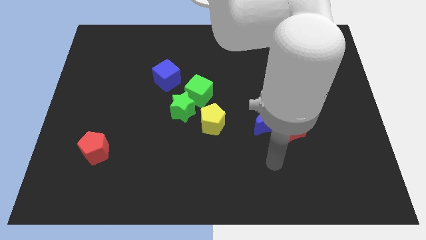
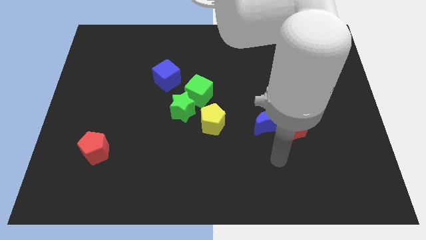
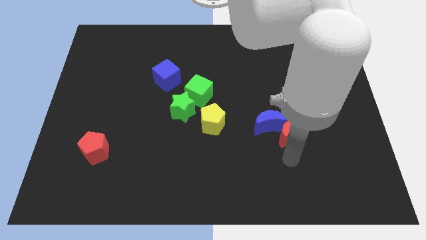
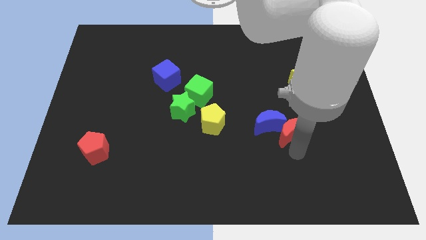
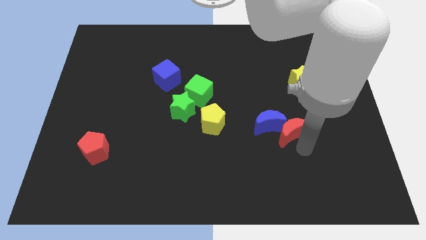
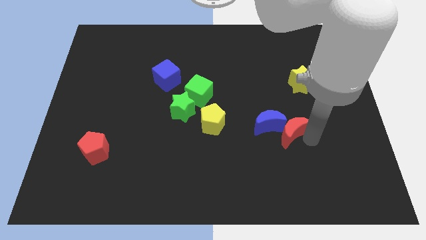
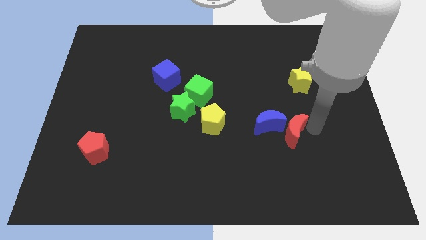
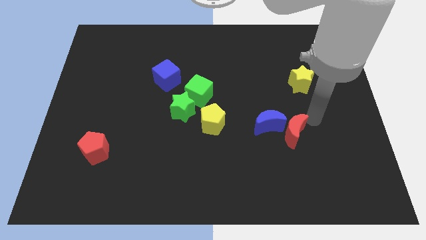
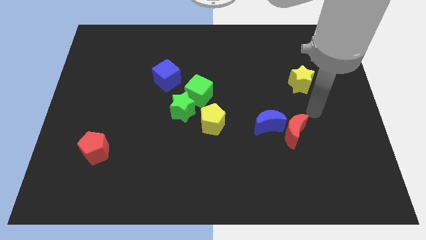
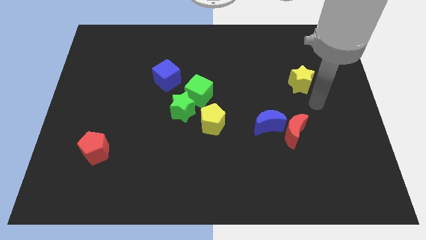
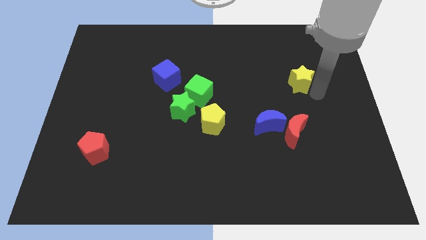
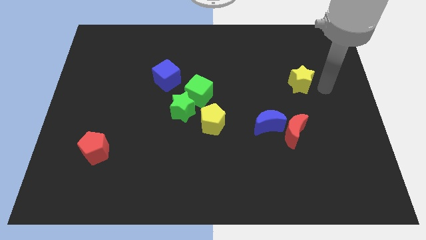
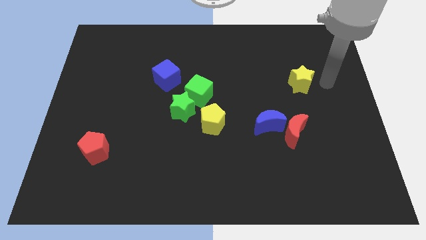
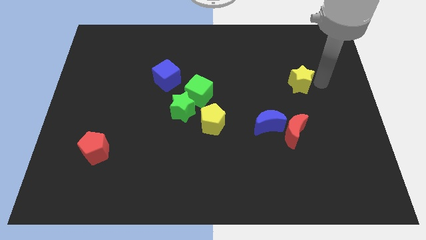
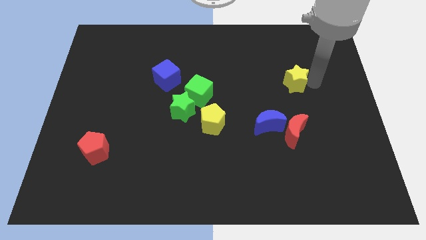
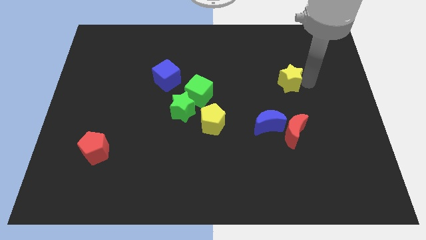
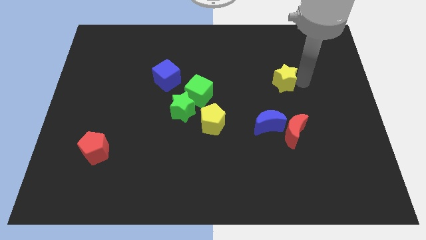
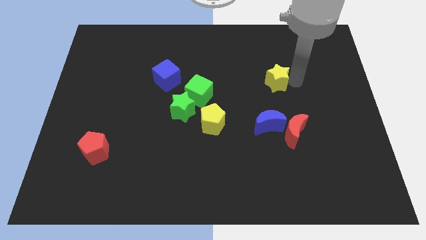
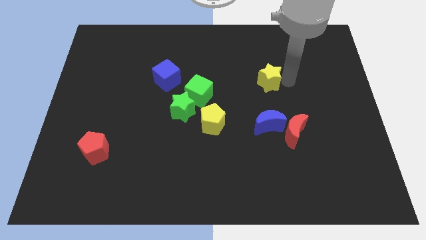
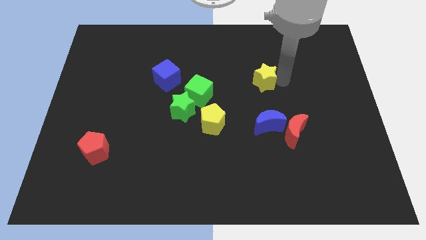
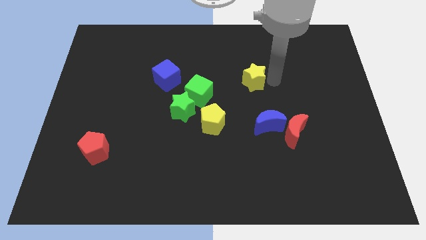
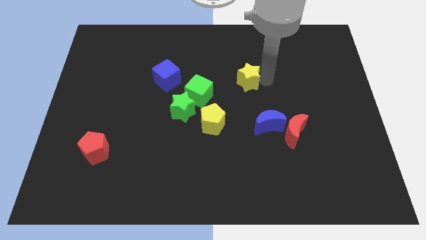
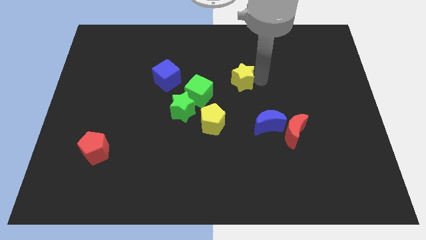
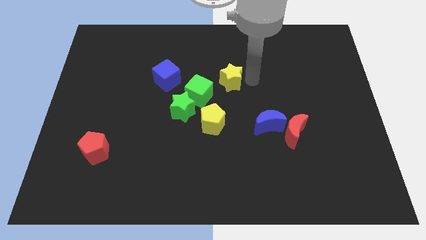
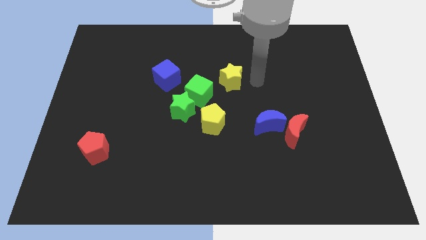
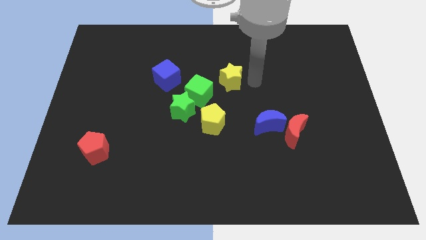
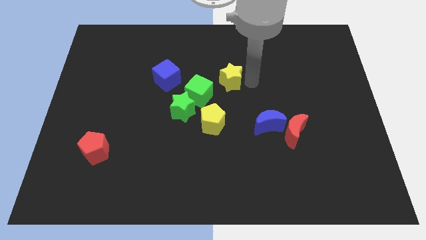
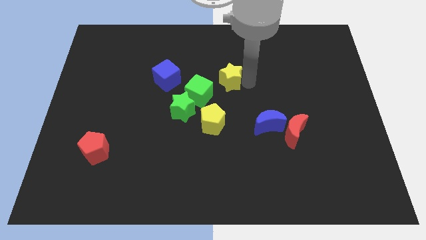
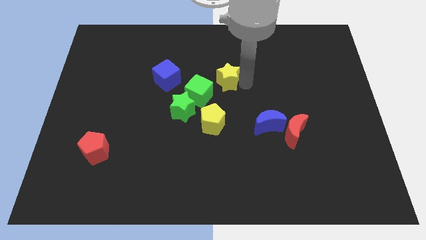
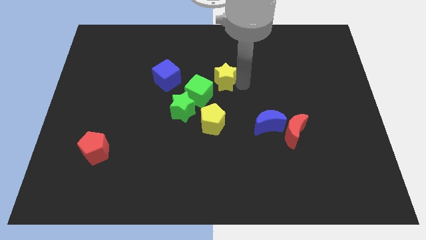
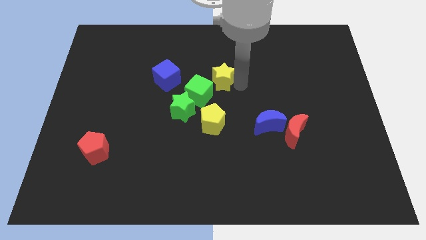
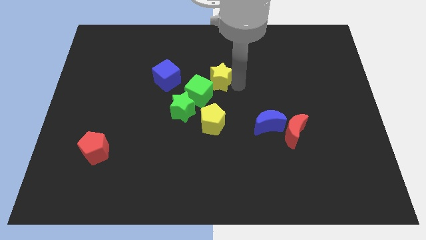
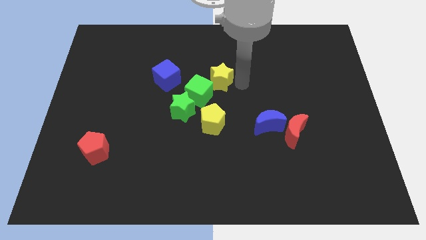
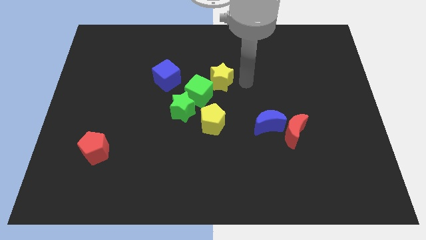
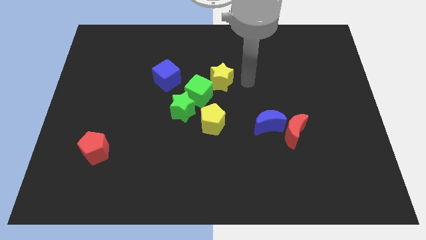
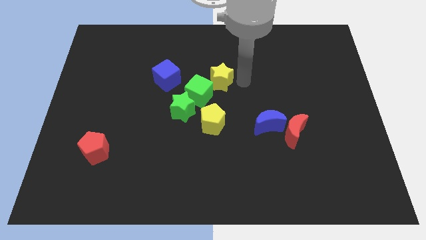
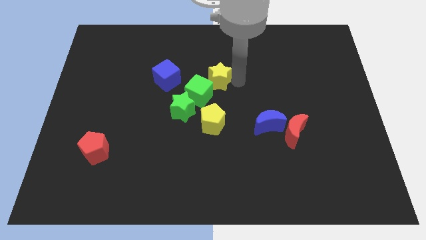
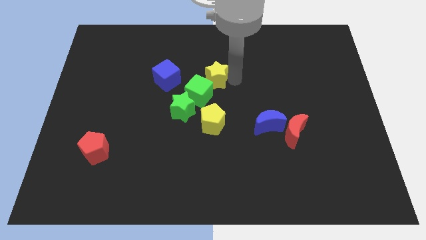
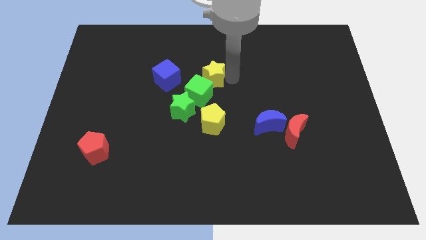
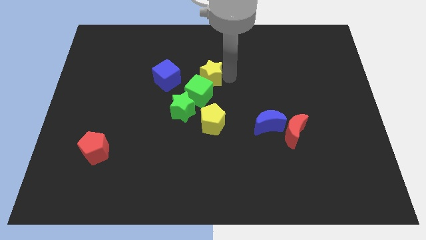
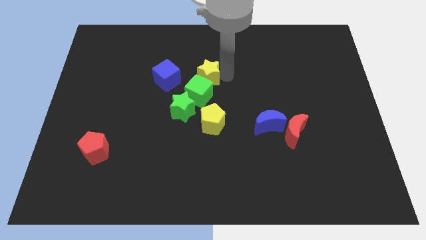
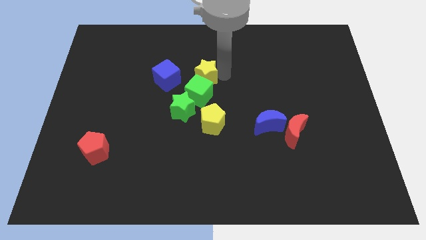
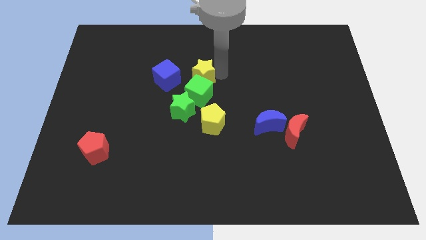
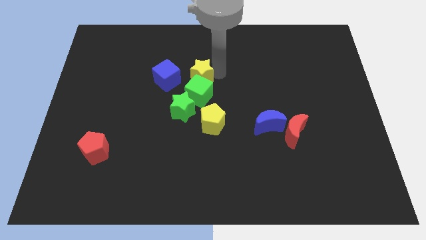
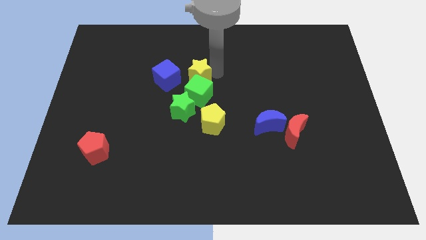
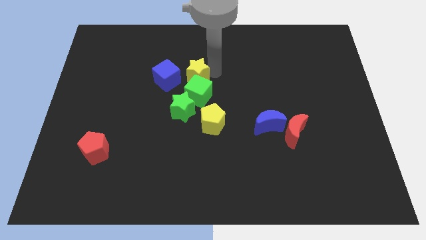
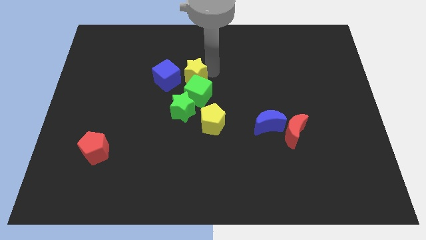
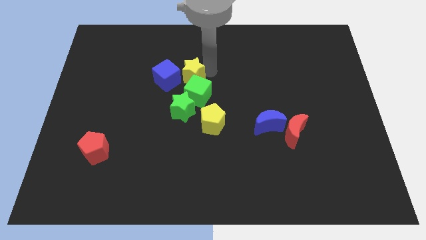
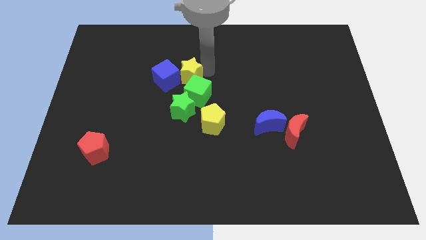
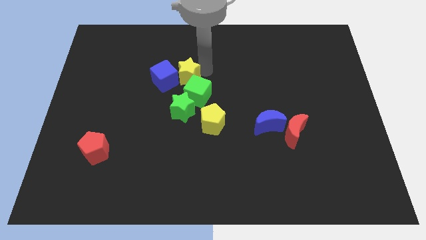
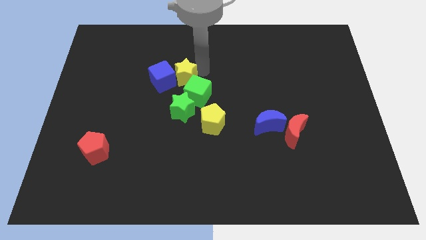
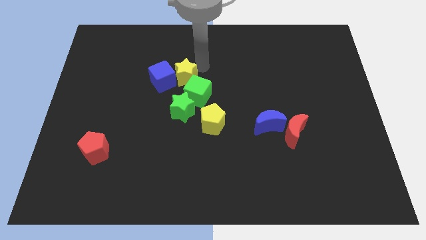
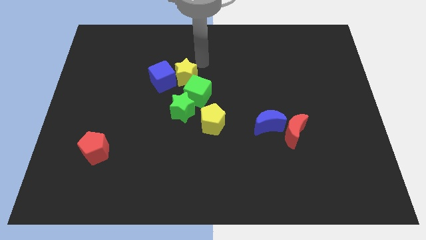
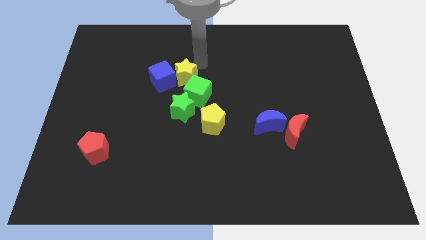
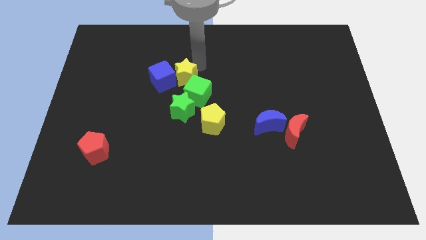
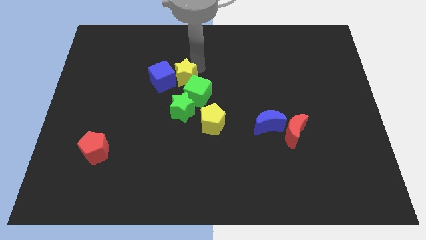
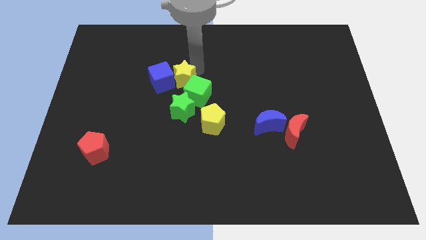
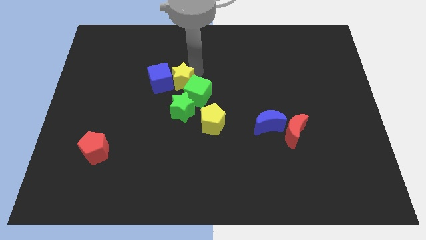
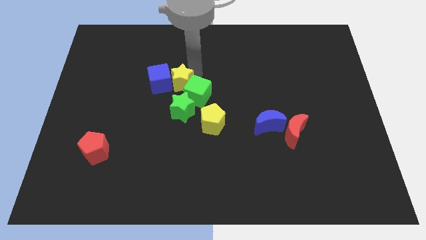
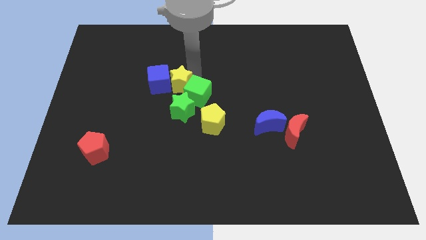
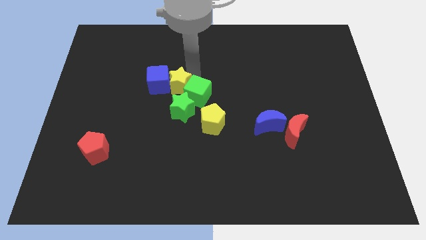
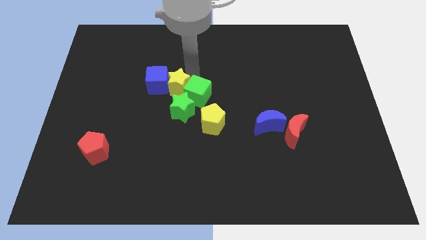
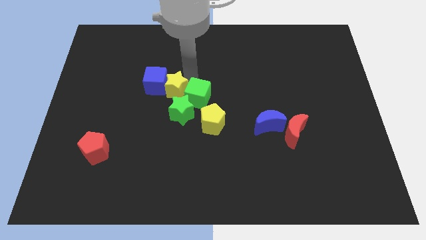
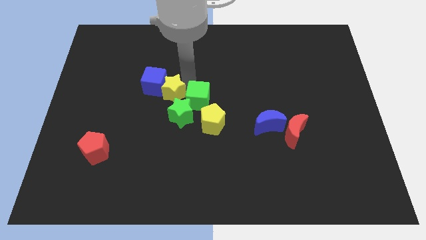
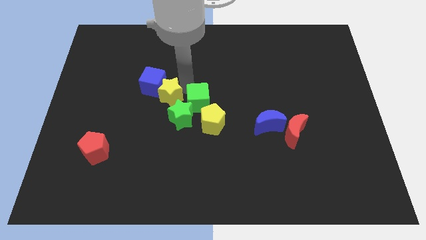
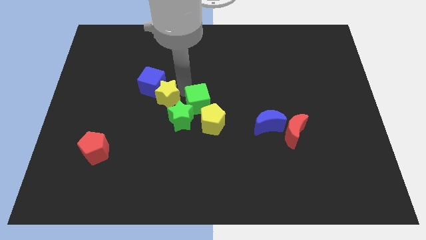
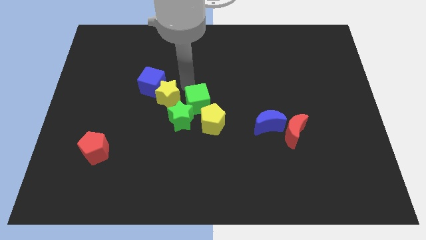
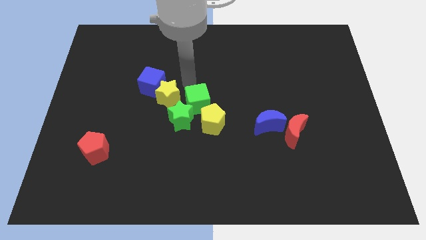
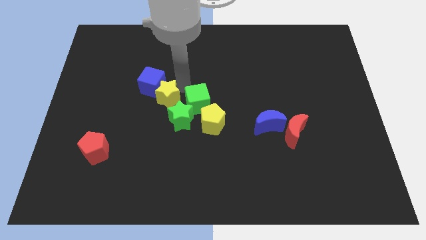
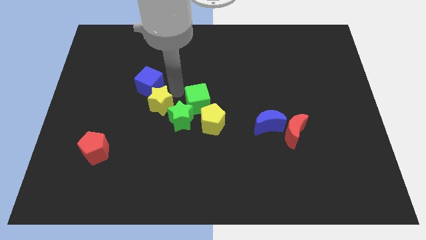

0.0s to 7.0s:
move the yellow star left of the green star
